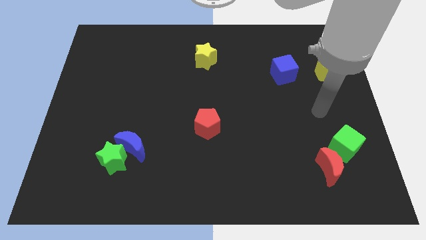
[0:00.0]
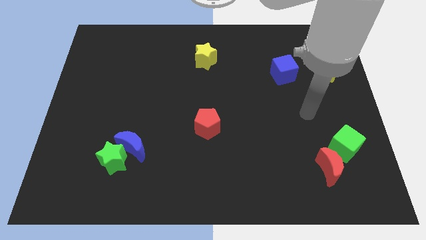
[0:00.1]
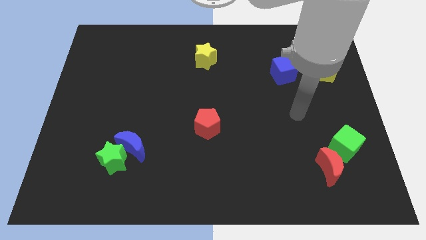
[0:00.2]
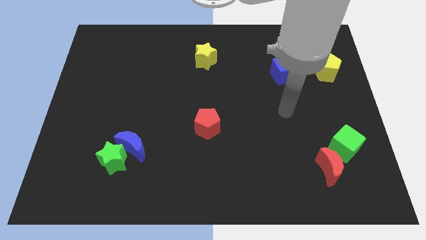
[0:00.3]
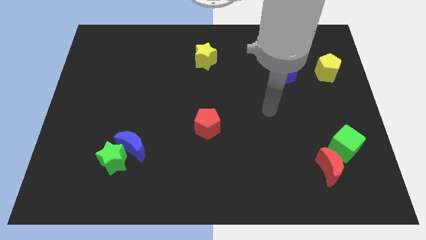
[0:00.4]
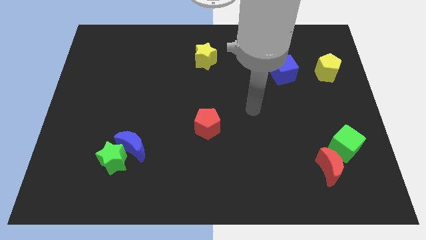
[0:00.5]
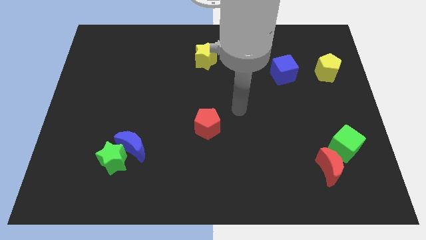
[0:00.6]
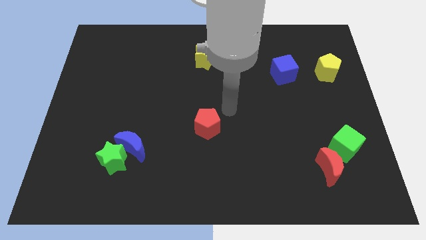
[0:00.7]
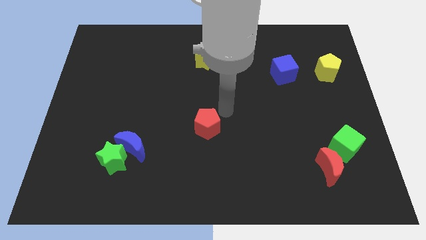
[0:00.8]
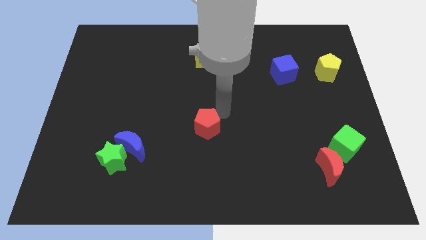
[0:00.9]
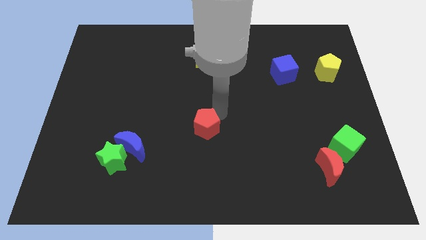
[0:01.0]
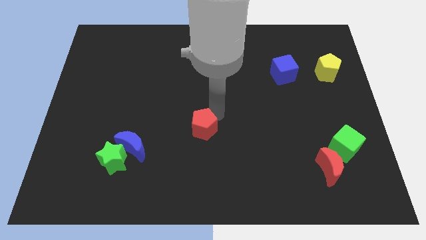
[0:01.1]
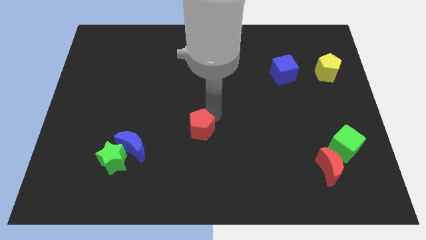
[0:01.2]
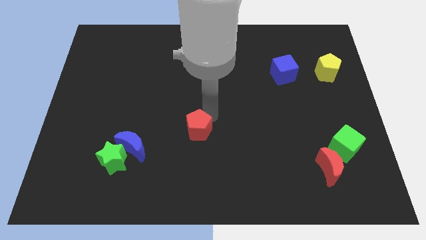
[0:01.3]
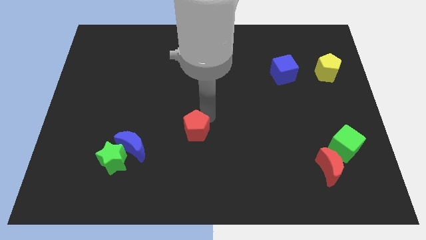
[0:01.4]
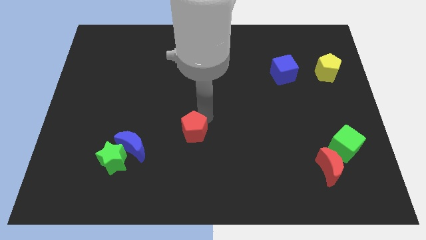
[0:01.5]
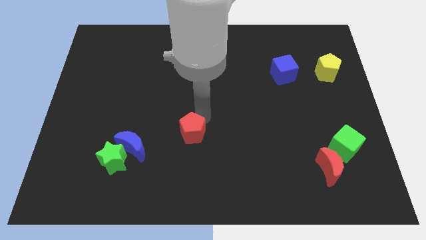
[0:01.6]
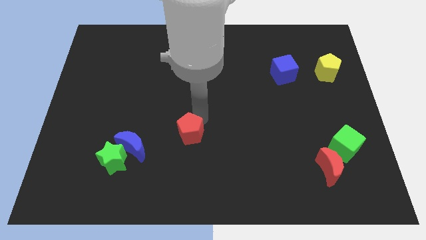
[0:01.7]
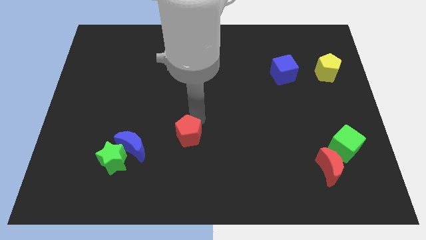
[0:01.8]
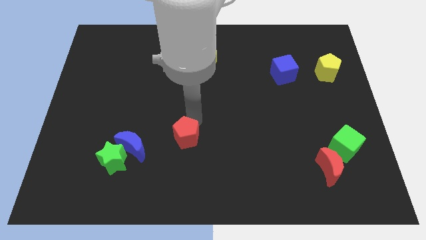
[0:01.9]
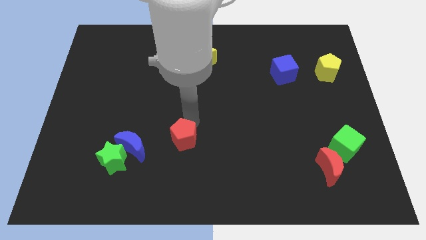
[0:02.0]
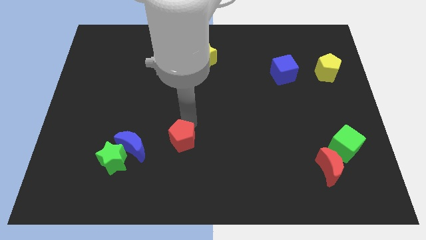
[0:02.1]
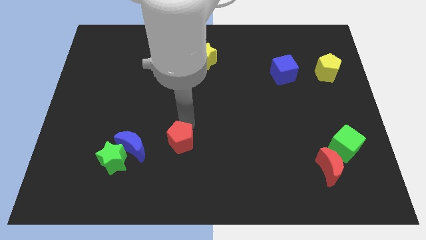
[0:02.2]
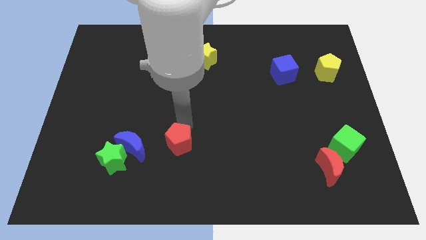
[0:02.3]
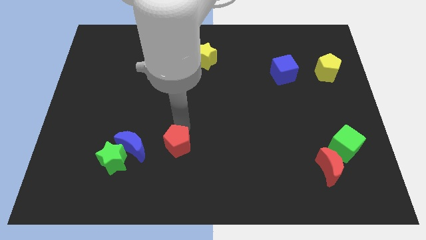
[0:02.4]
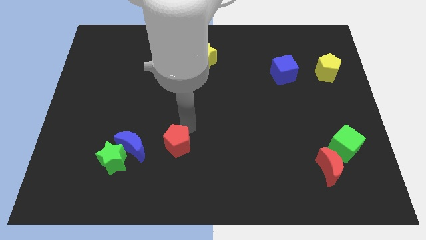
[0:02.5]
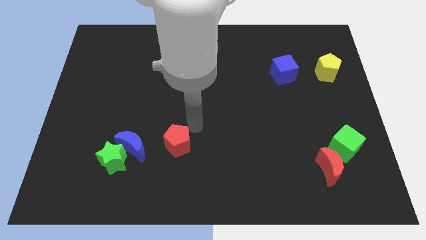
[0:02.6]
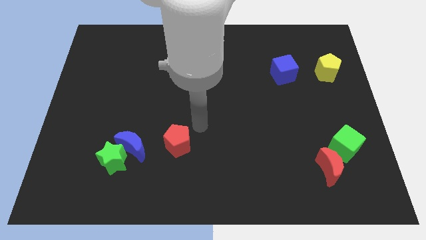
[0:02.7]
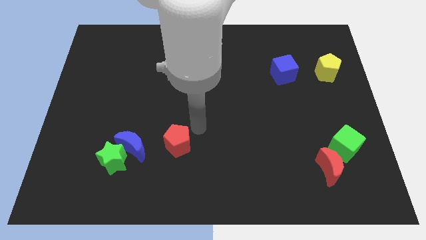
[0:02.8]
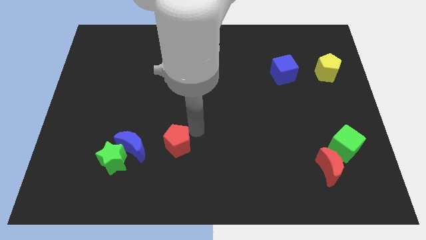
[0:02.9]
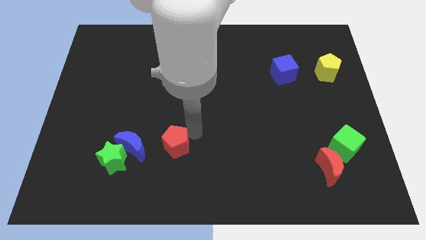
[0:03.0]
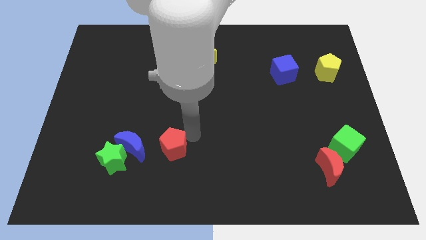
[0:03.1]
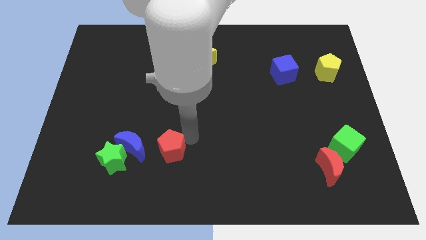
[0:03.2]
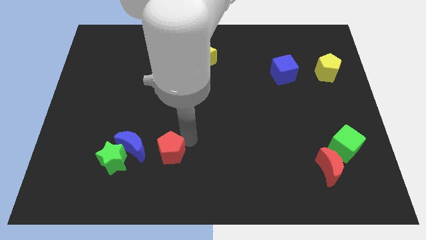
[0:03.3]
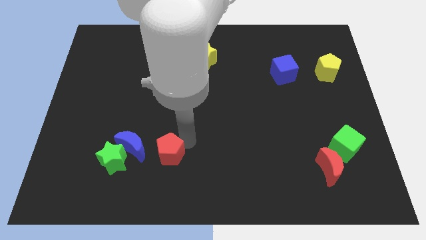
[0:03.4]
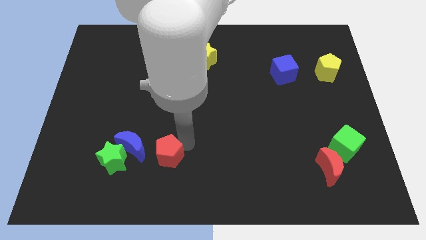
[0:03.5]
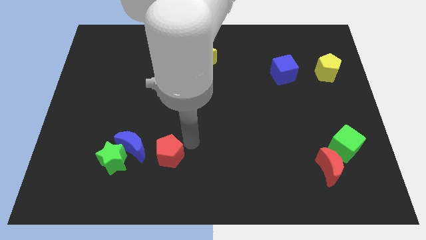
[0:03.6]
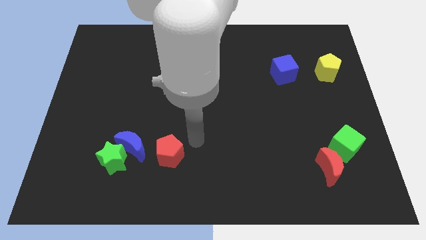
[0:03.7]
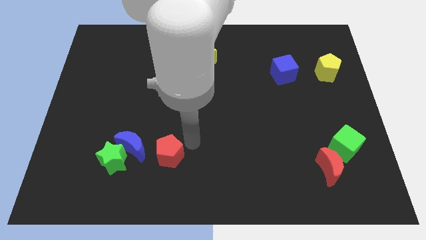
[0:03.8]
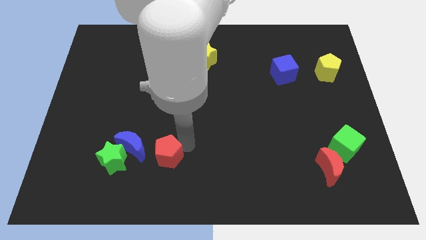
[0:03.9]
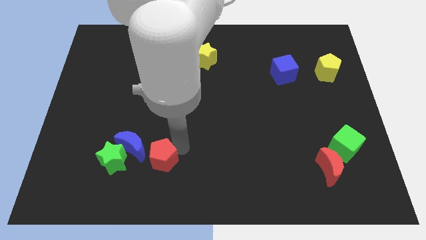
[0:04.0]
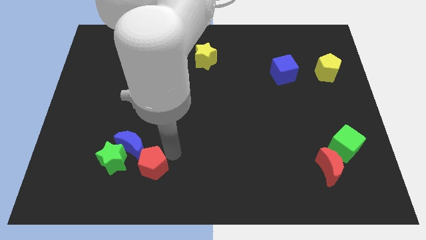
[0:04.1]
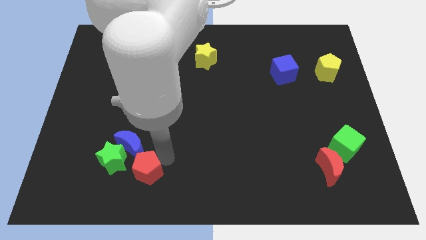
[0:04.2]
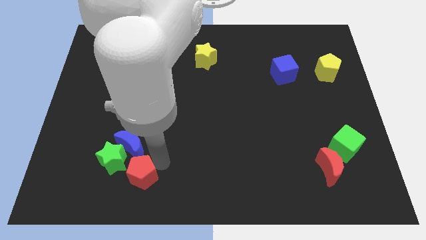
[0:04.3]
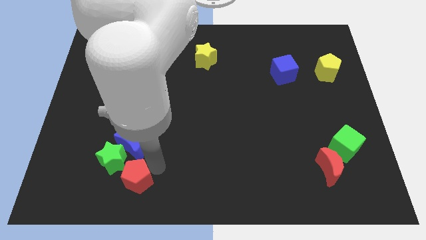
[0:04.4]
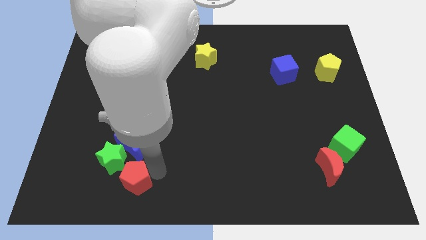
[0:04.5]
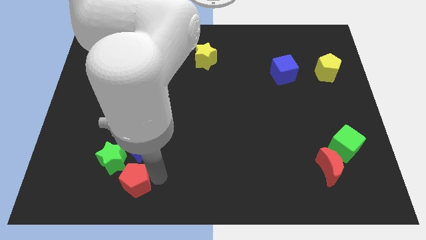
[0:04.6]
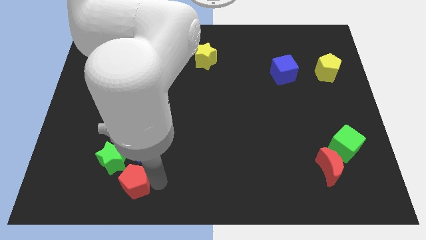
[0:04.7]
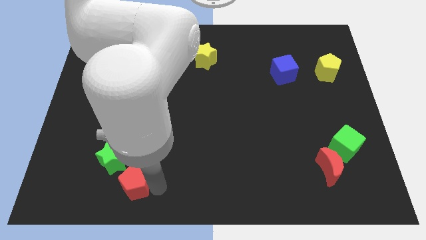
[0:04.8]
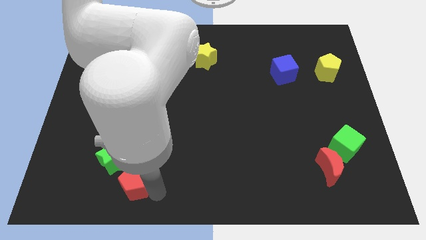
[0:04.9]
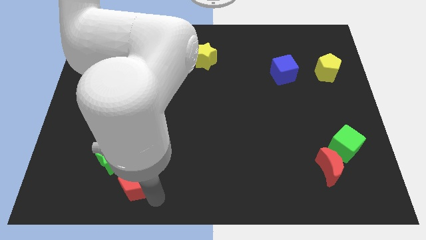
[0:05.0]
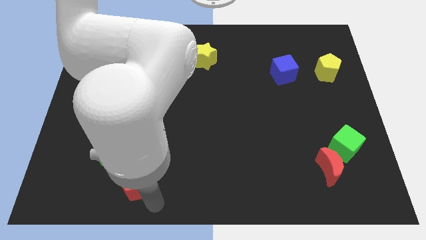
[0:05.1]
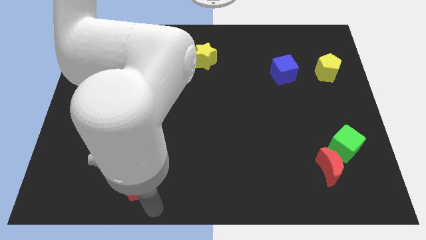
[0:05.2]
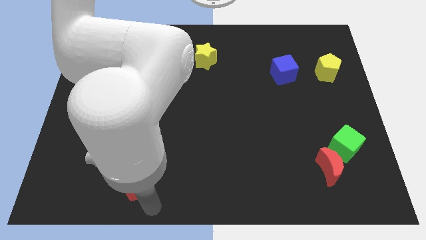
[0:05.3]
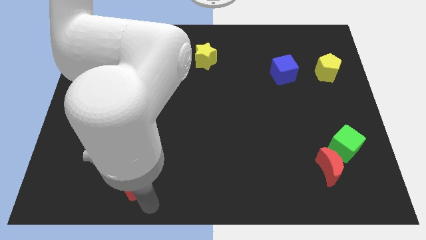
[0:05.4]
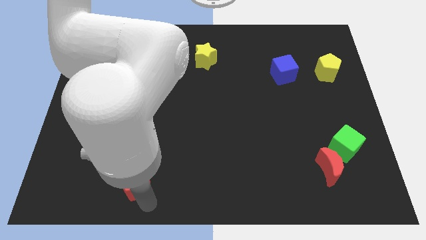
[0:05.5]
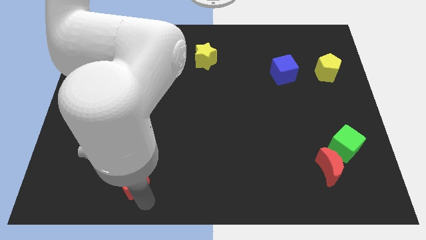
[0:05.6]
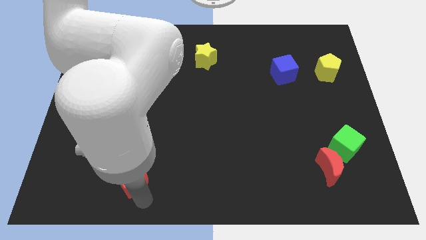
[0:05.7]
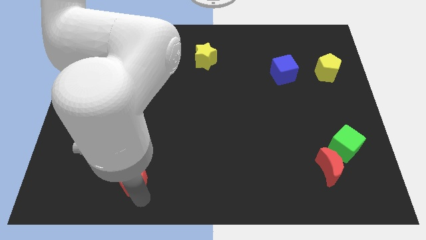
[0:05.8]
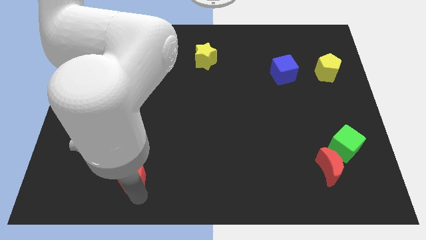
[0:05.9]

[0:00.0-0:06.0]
move the red pentagon next to the green star
